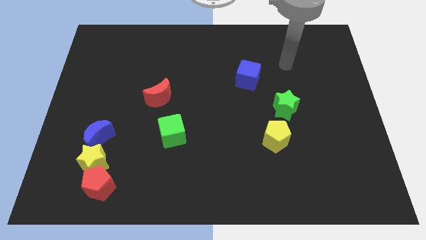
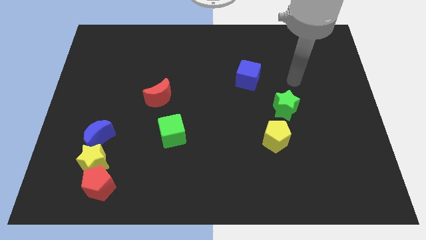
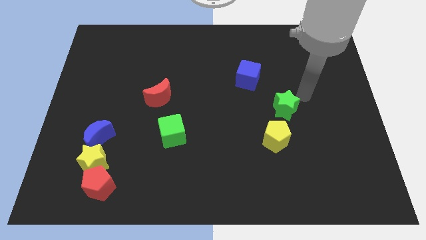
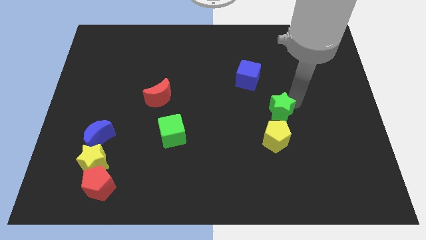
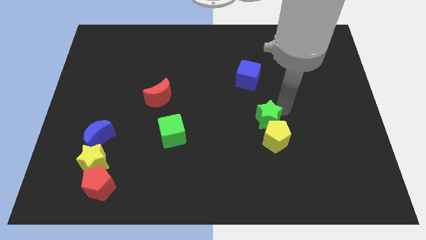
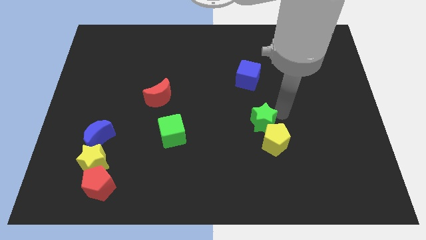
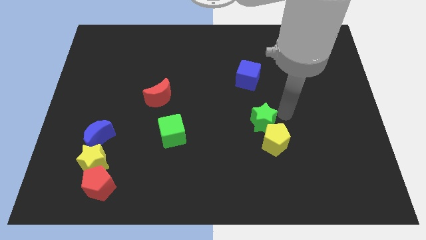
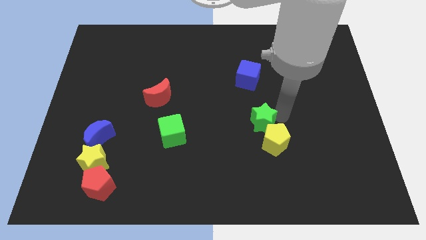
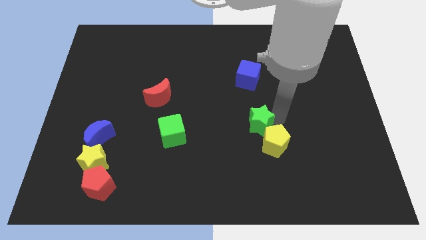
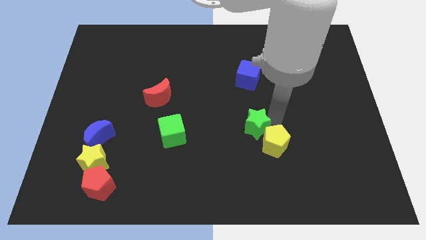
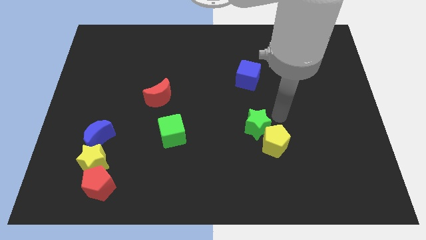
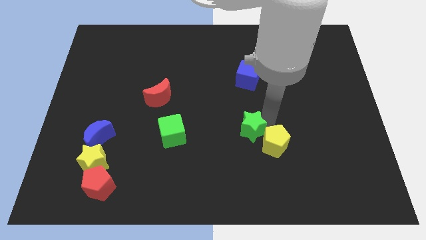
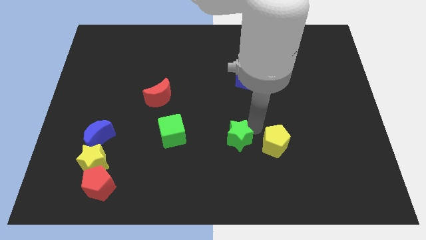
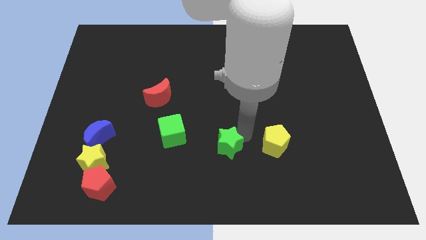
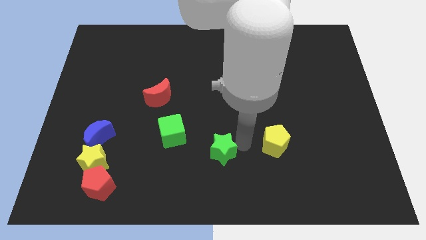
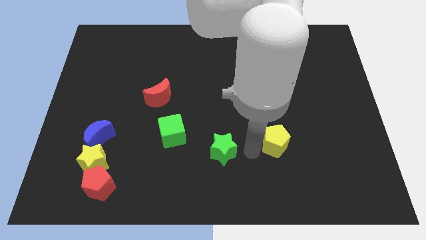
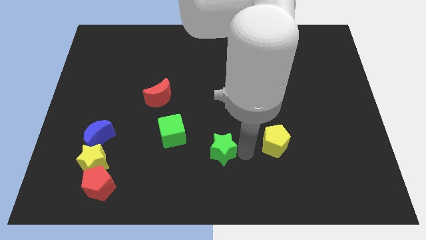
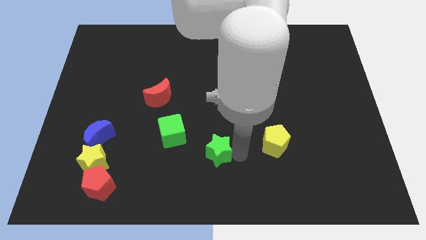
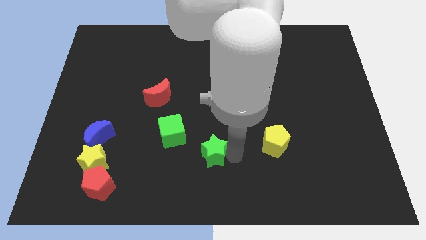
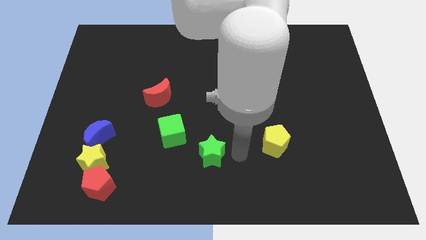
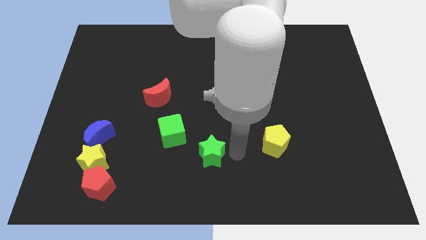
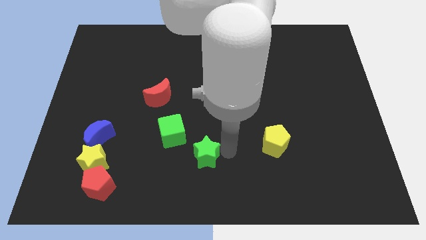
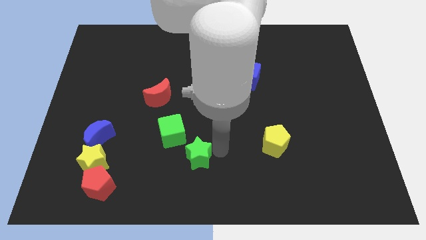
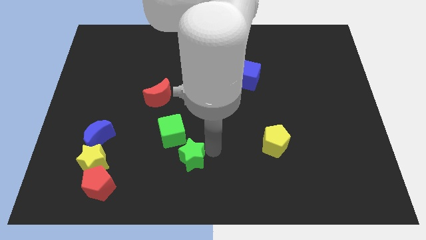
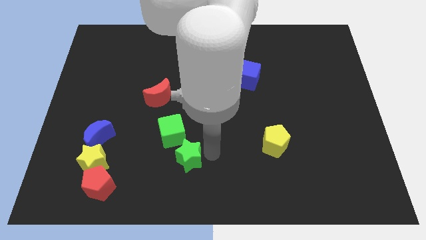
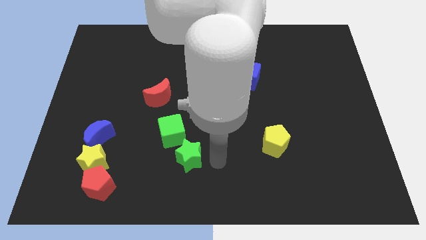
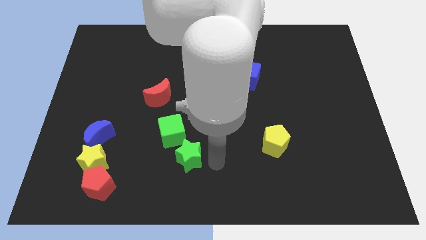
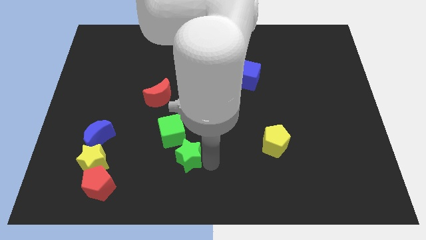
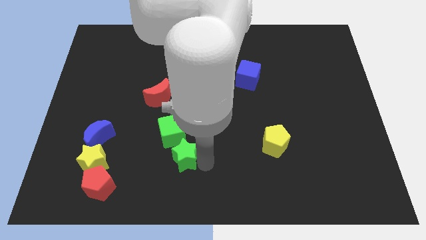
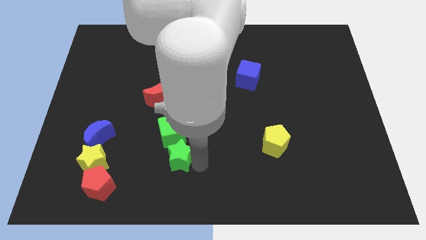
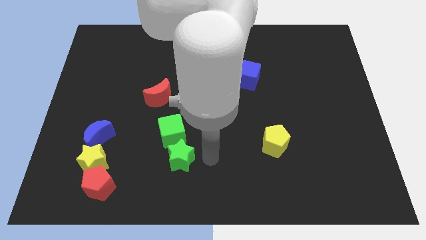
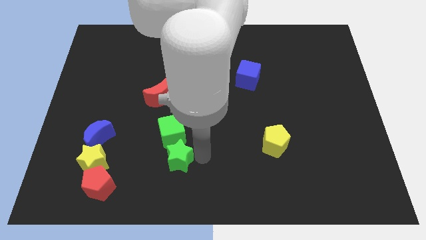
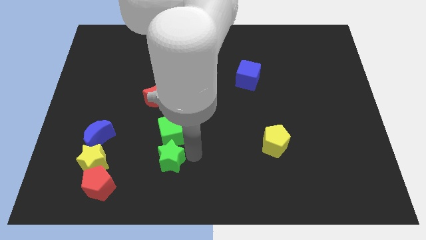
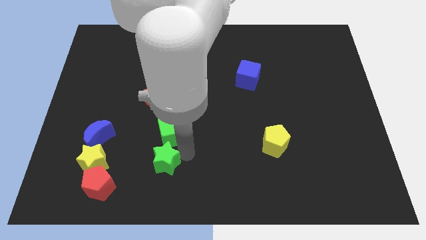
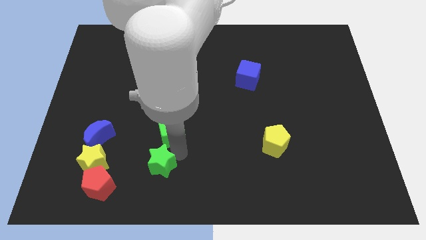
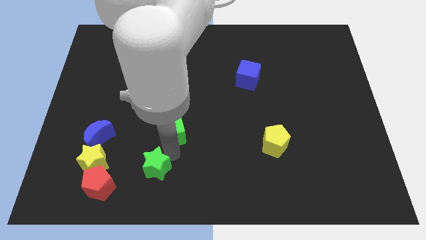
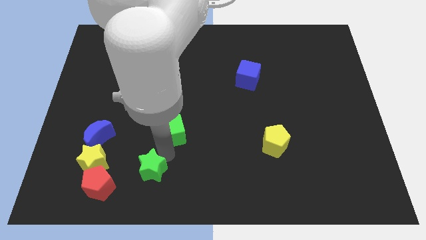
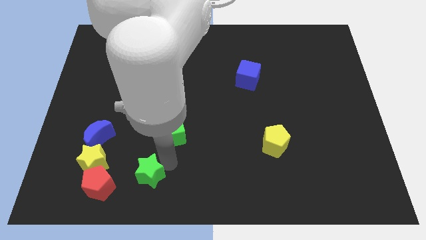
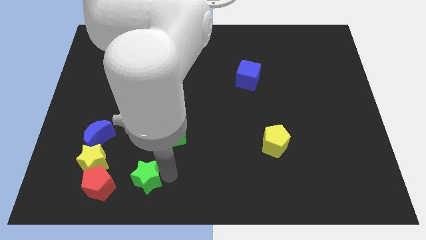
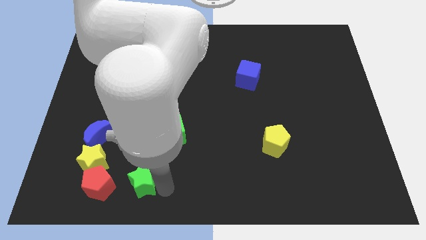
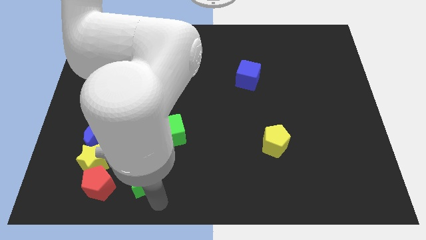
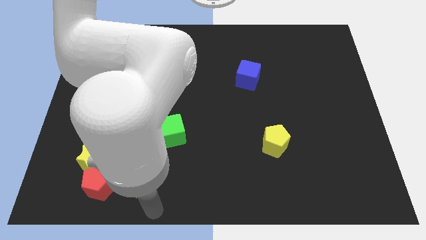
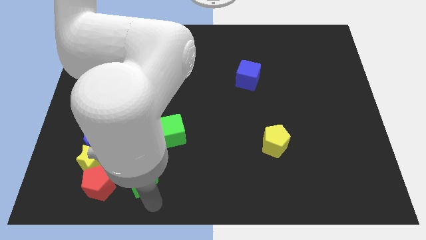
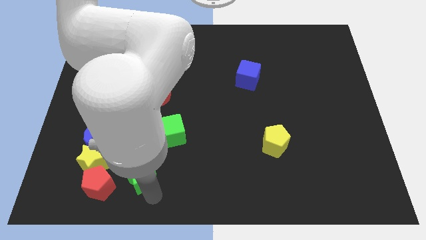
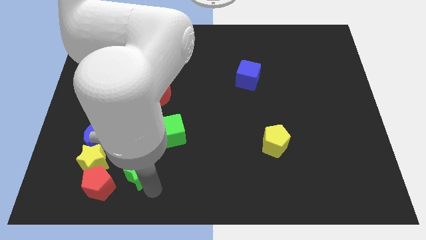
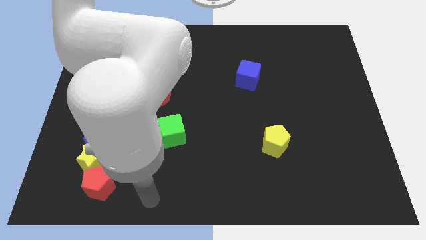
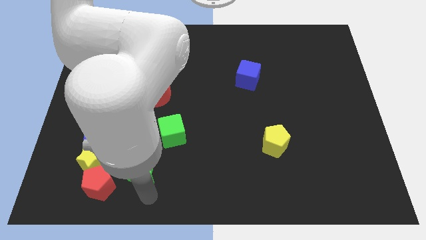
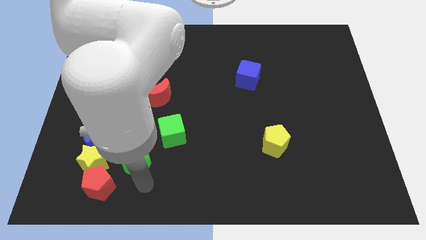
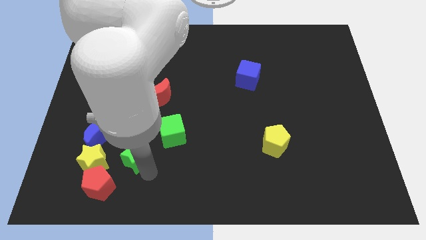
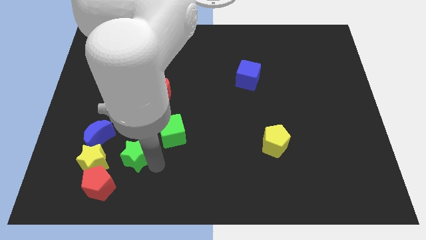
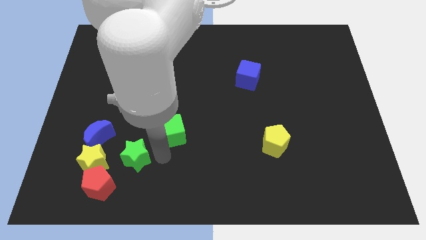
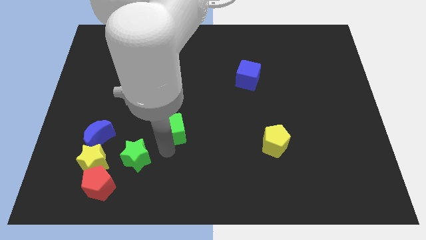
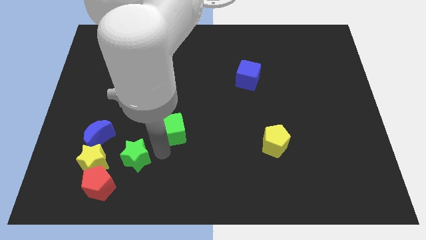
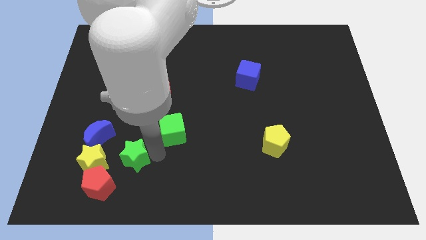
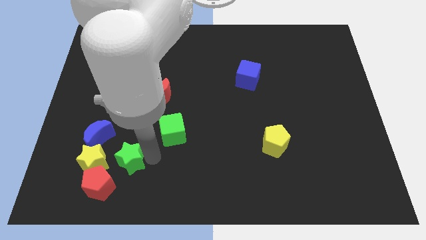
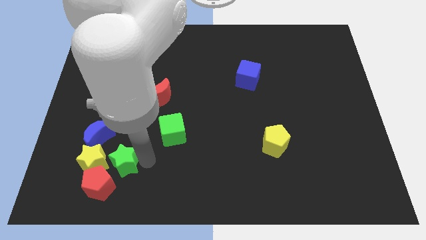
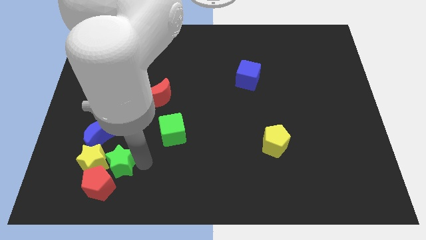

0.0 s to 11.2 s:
slide the green star to the yellow star

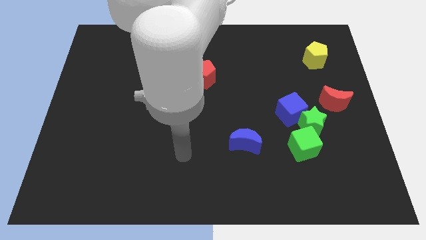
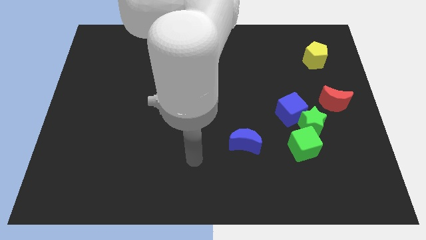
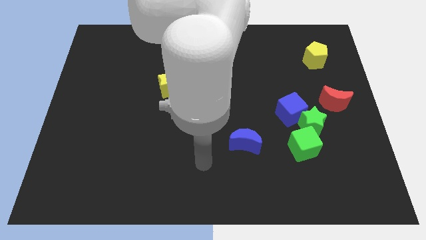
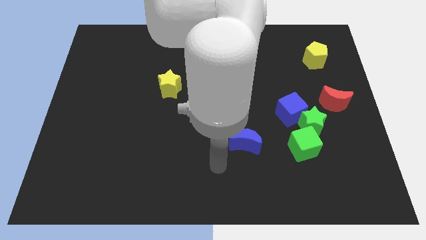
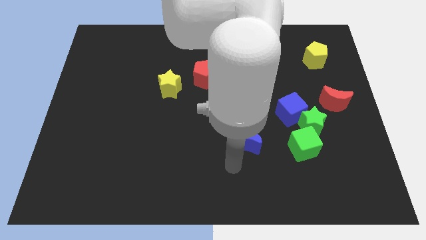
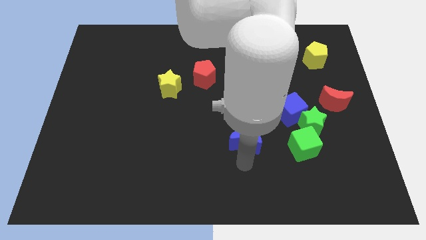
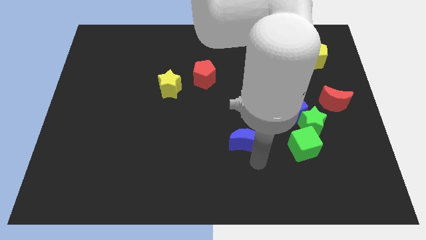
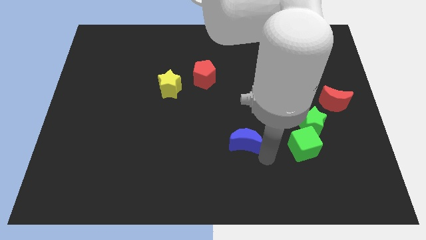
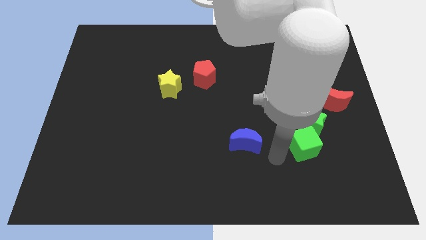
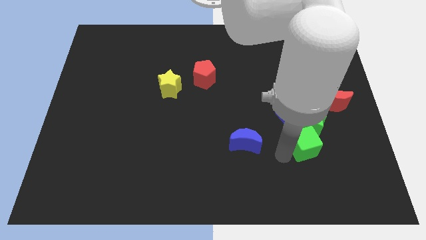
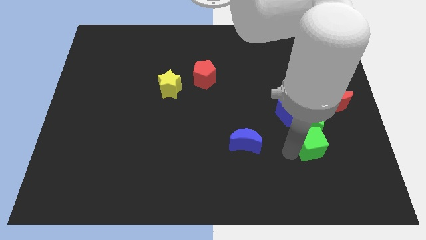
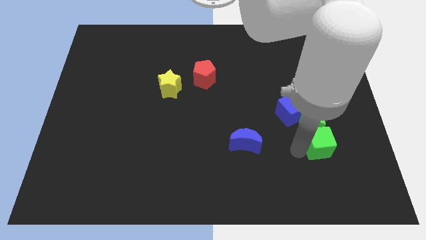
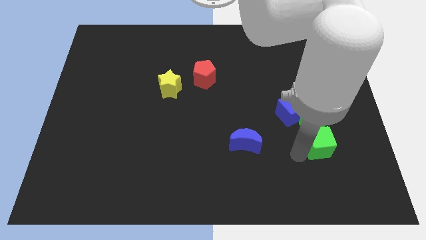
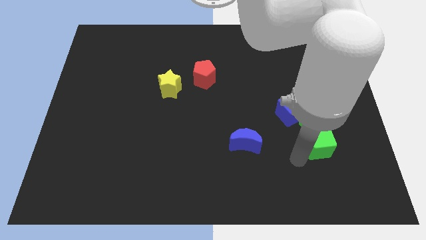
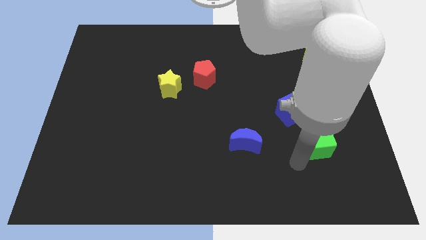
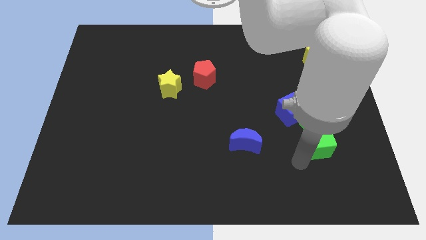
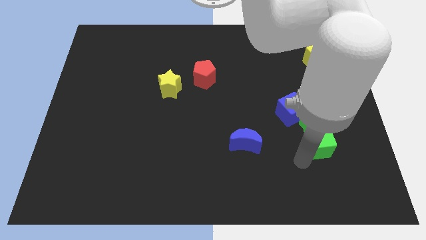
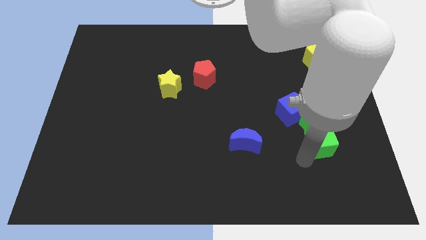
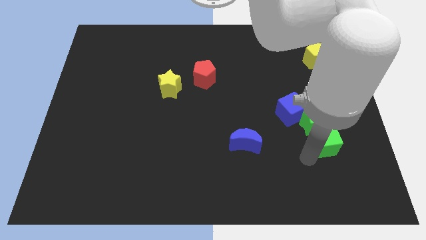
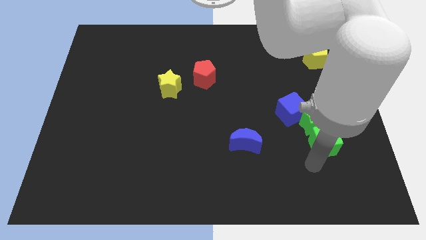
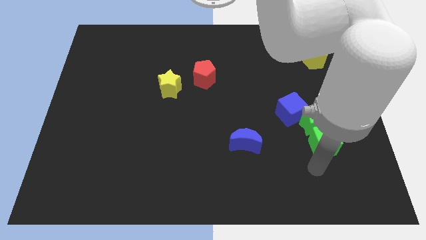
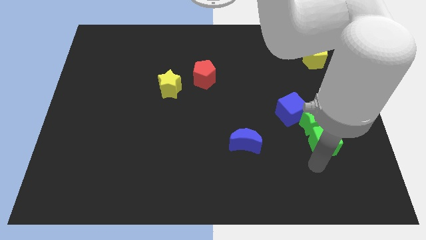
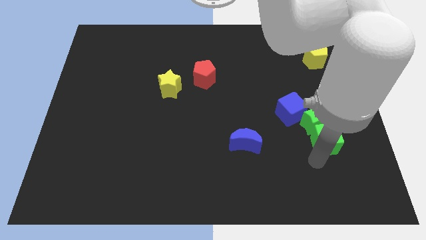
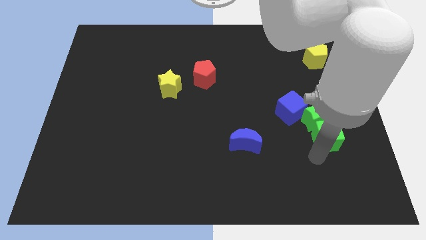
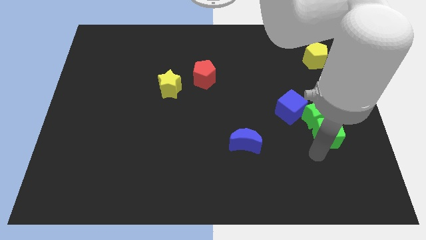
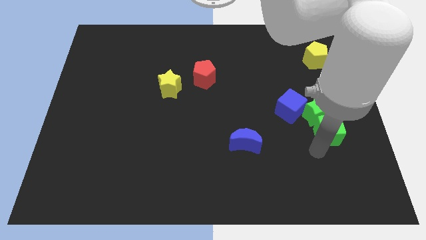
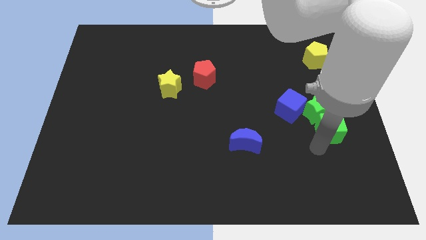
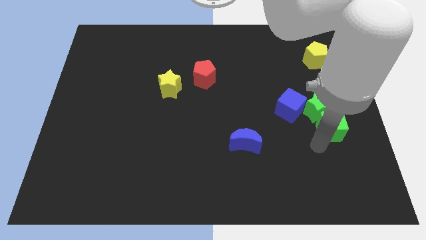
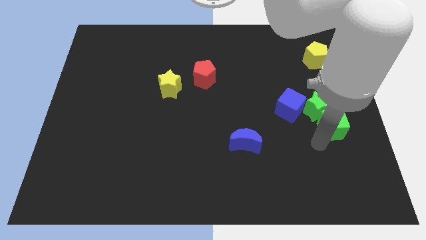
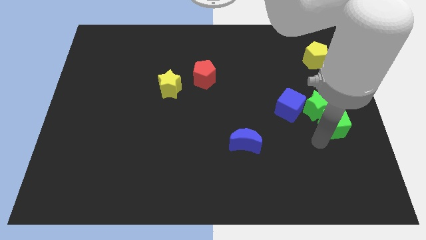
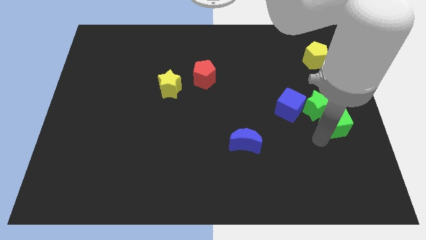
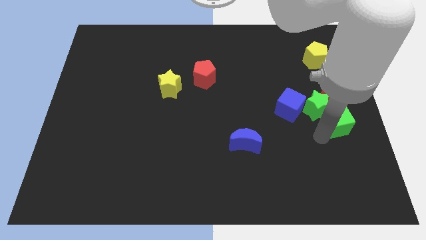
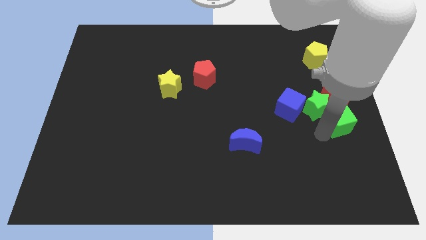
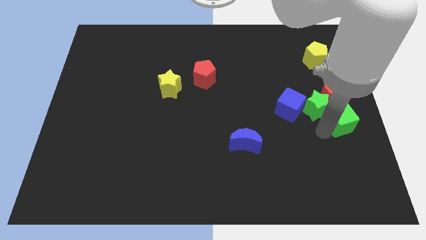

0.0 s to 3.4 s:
move the green cube to the red moon
